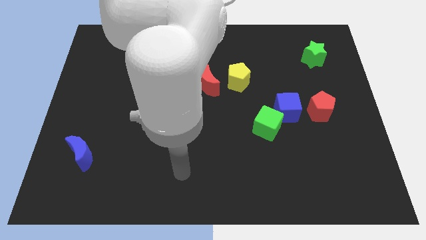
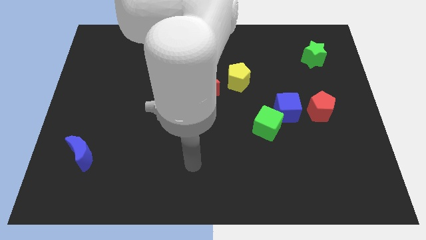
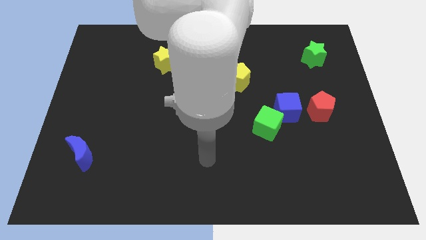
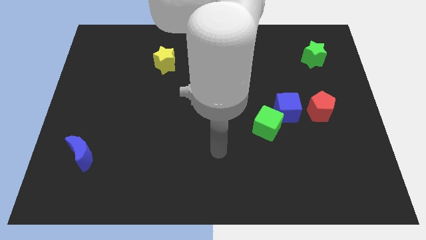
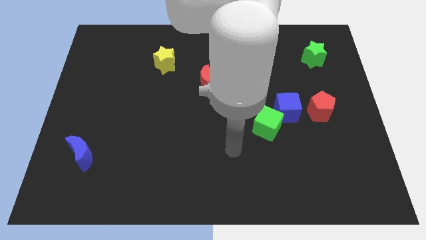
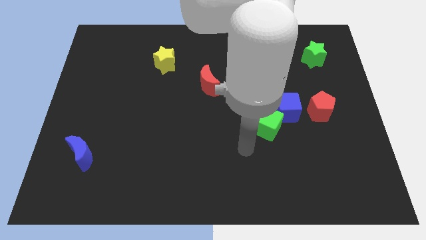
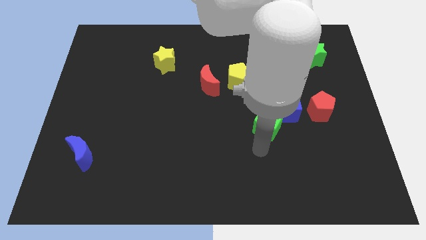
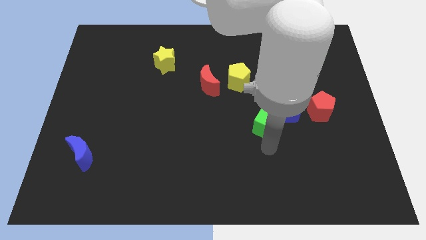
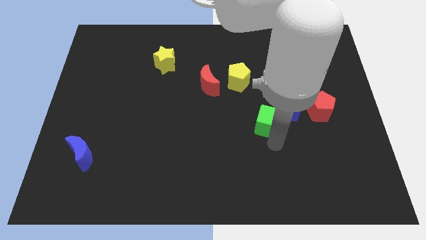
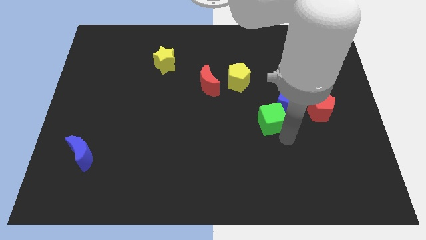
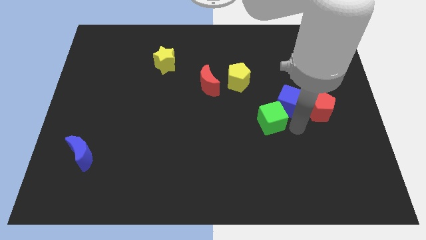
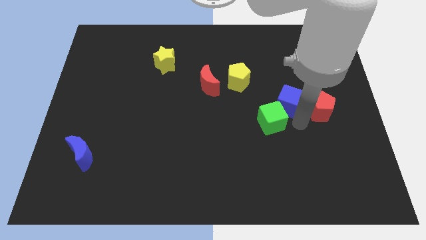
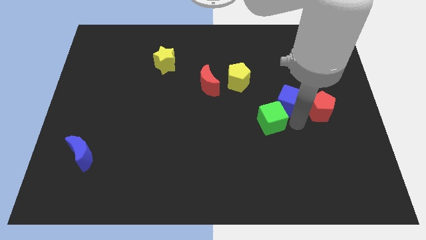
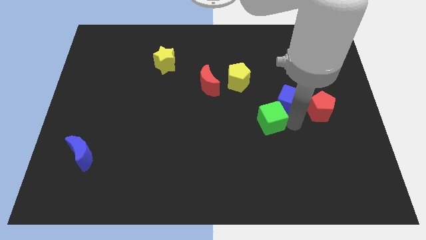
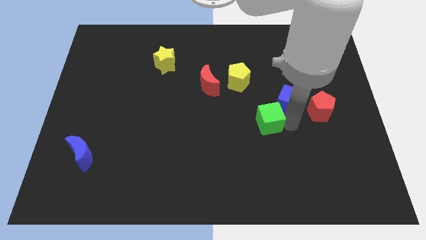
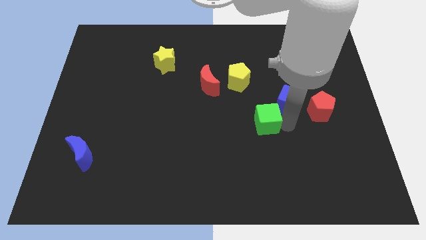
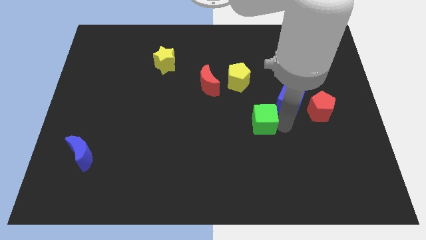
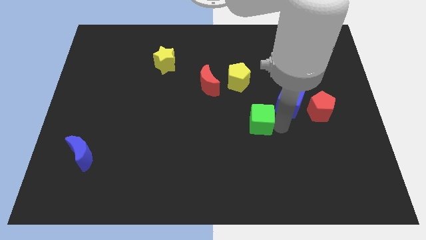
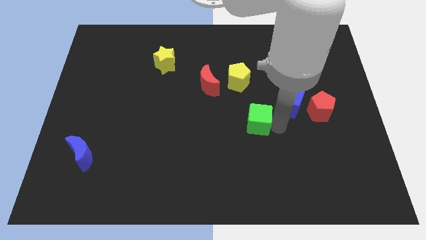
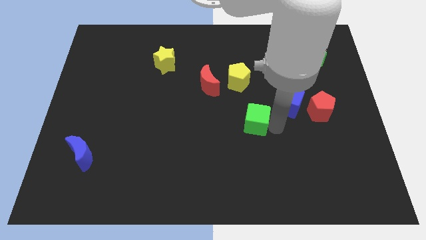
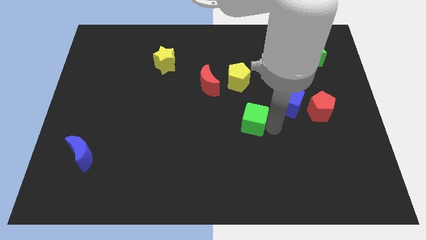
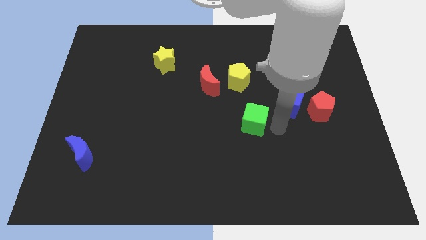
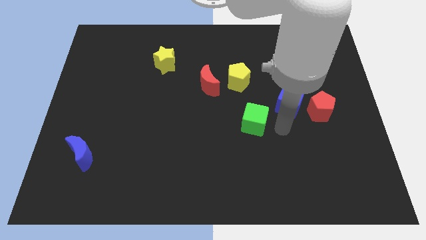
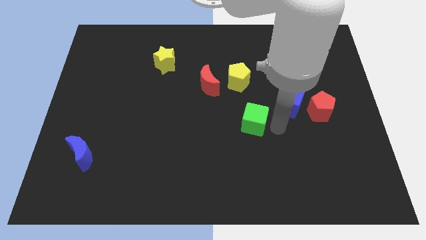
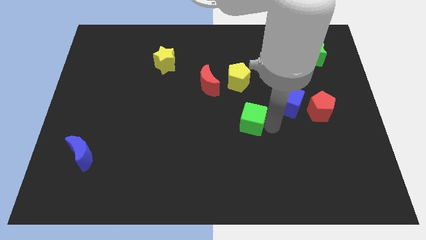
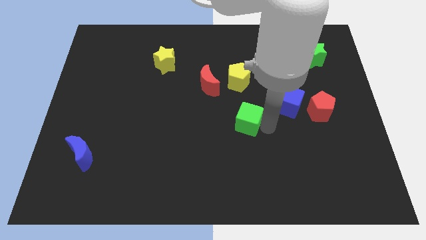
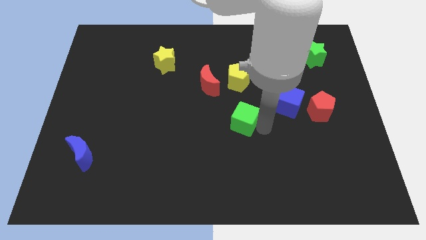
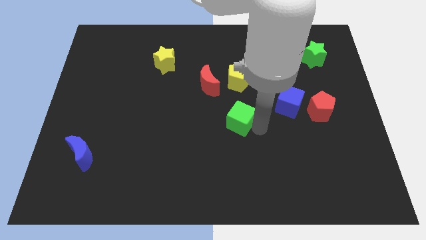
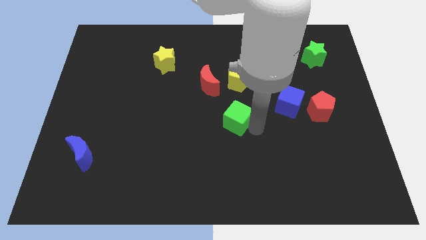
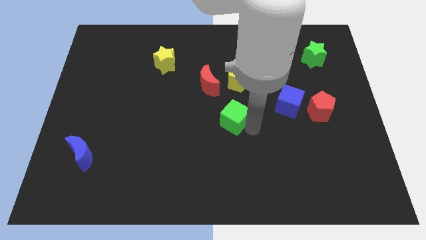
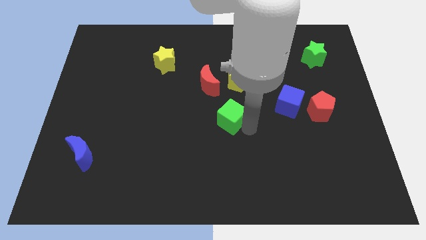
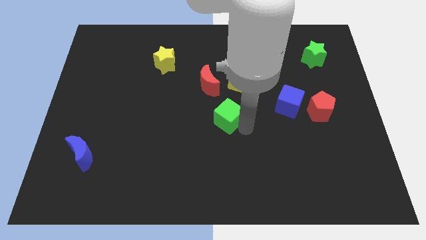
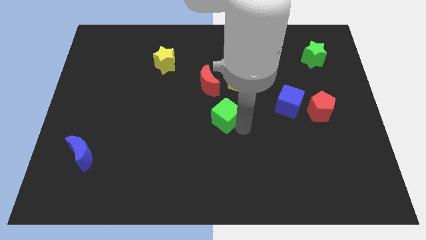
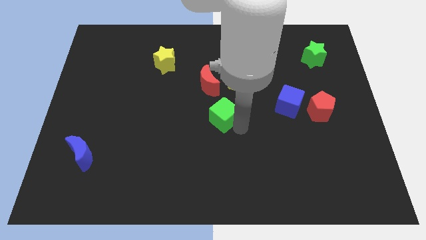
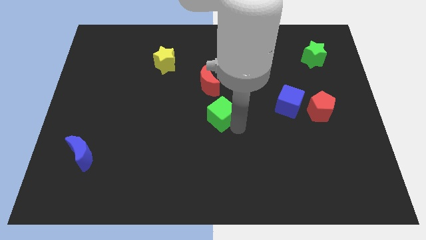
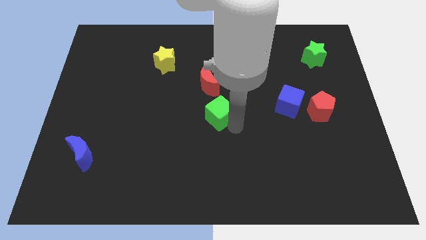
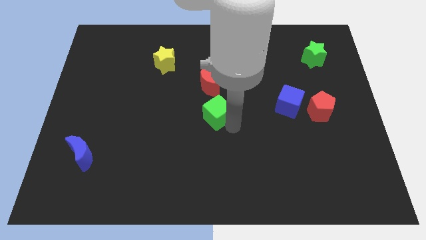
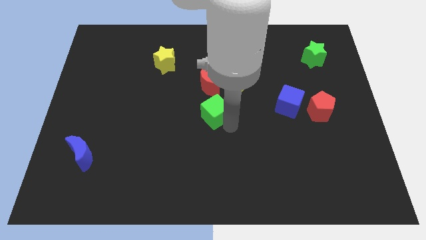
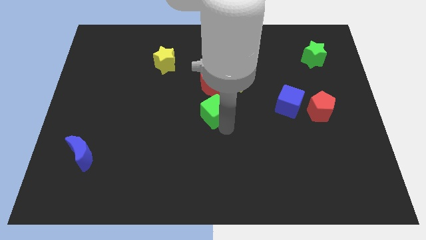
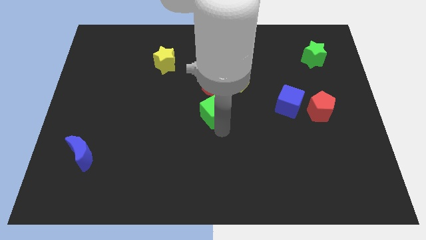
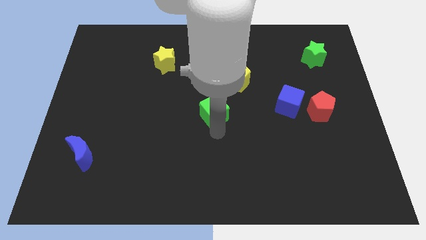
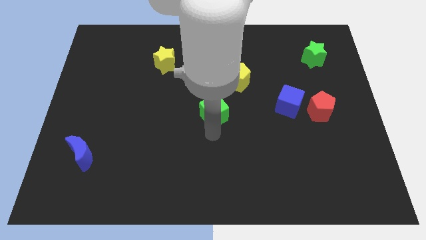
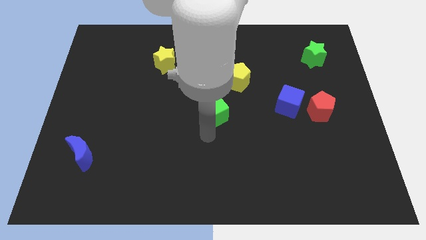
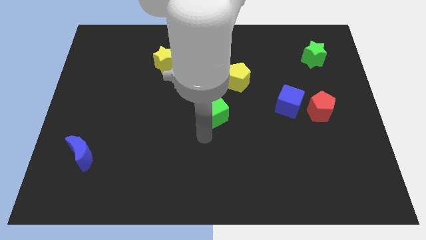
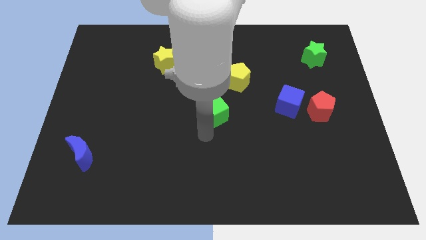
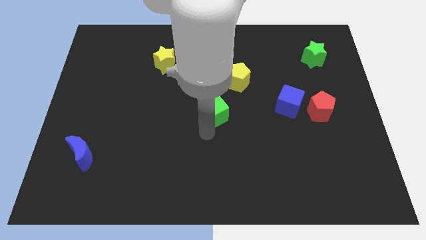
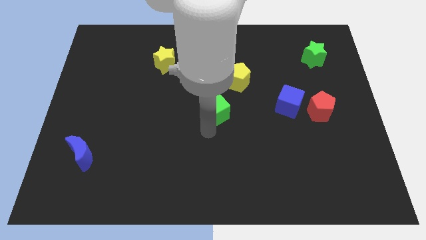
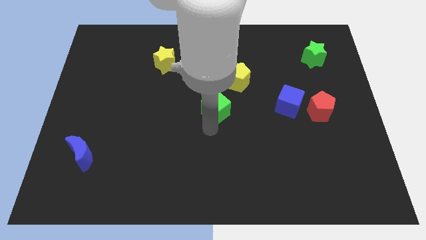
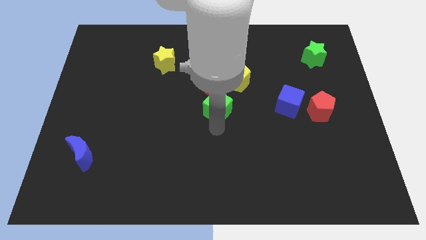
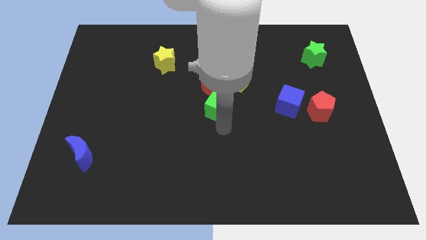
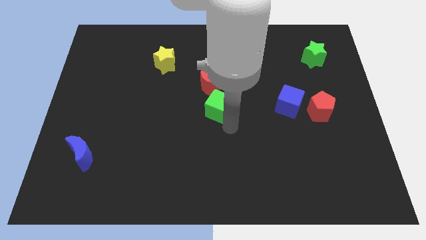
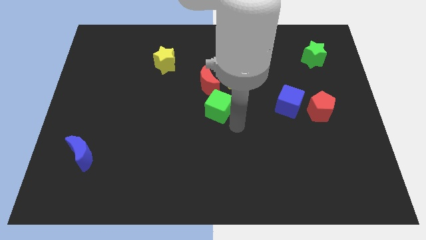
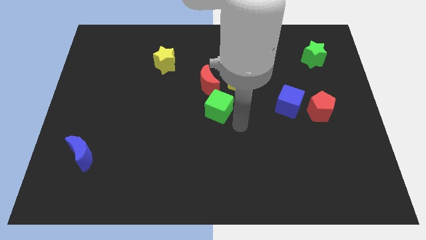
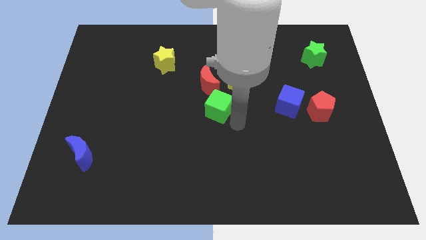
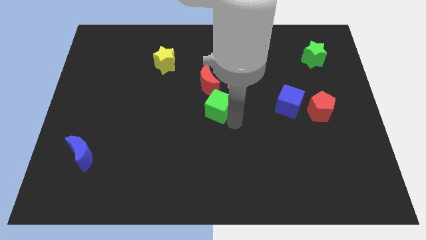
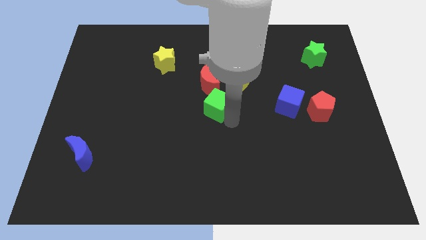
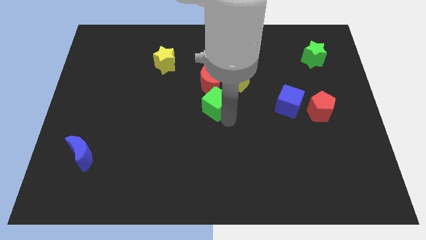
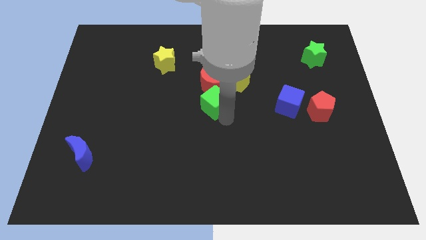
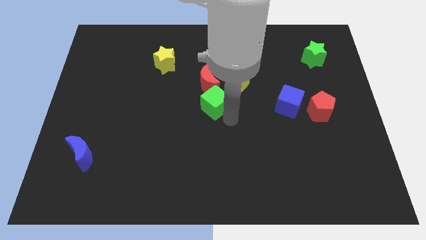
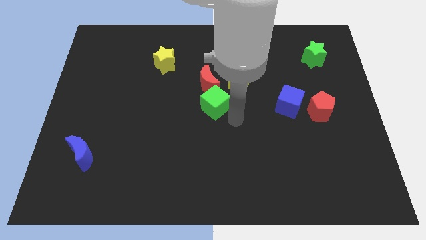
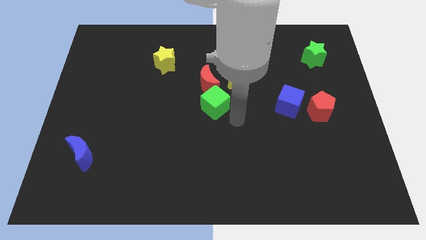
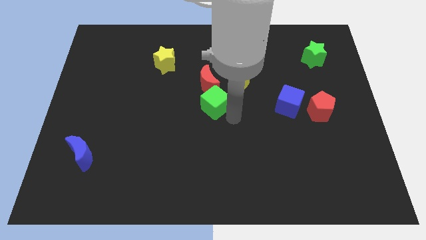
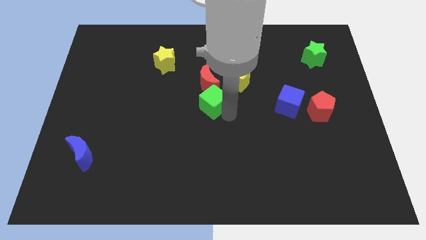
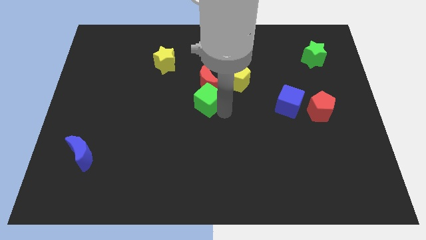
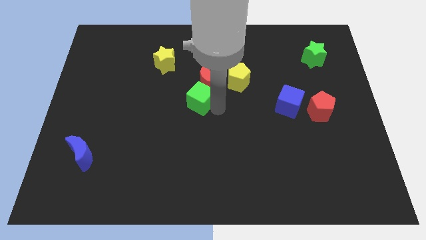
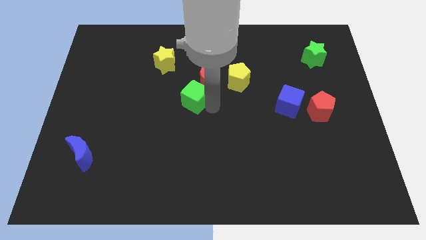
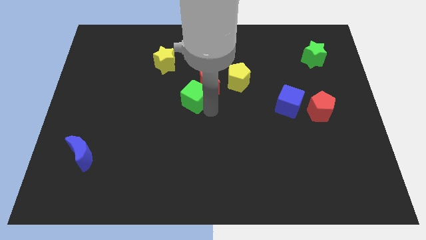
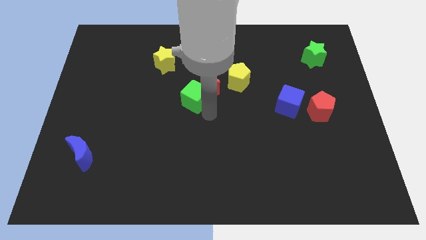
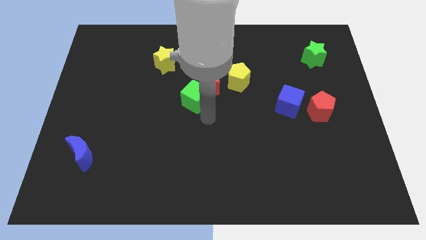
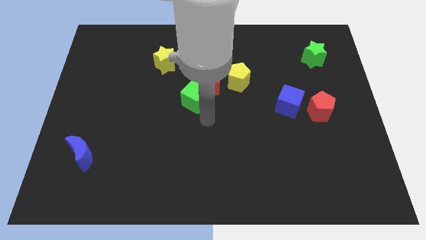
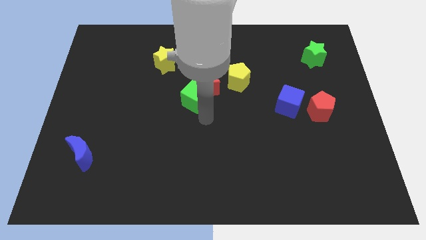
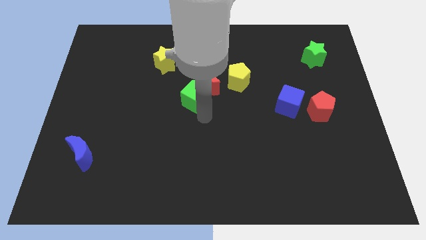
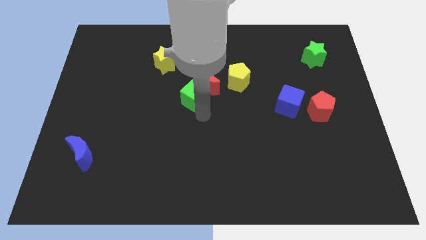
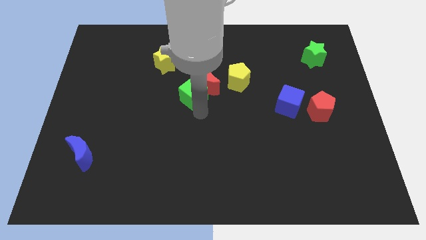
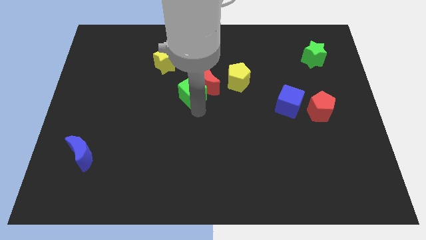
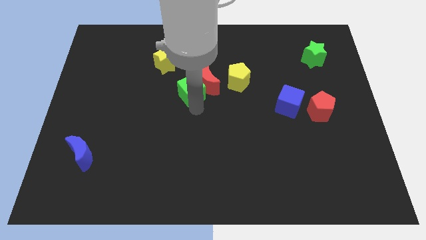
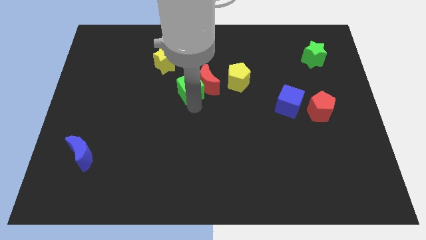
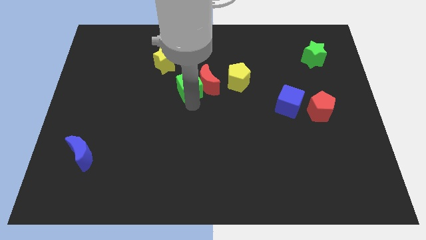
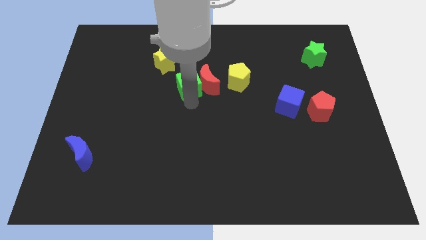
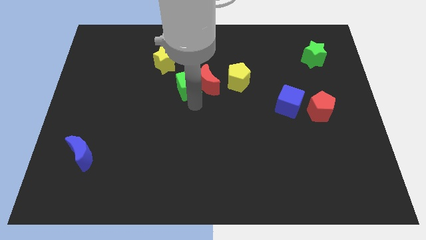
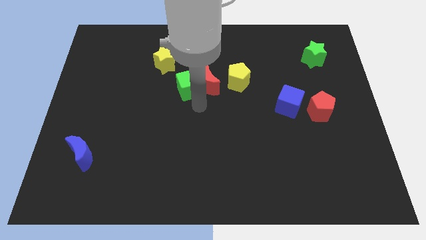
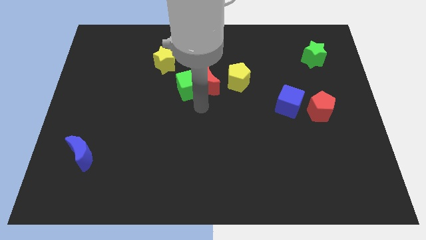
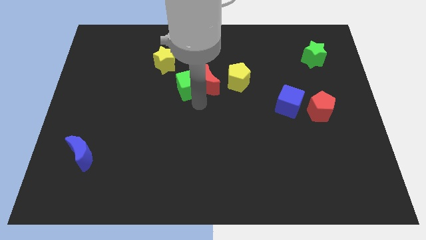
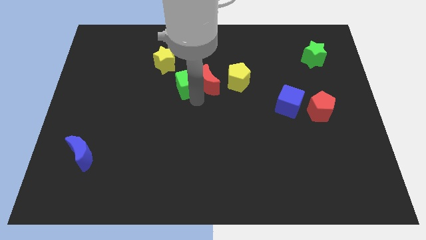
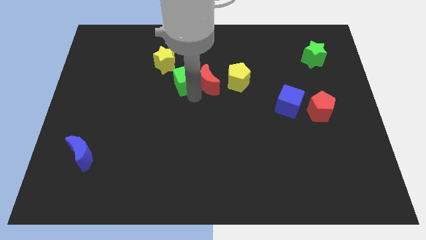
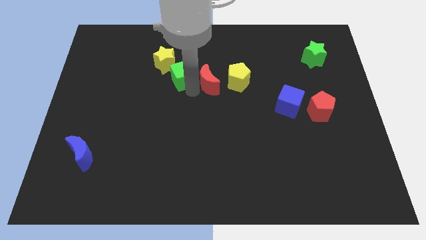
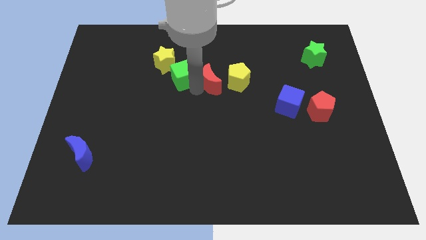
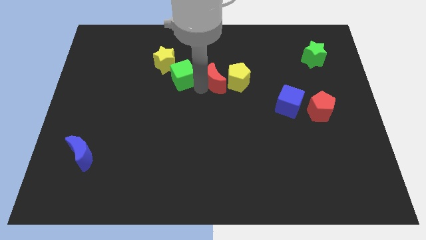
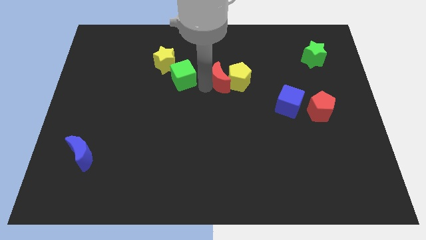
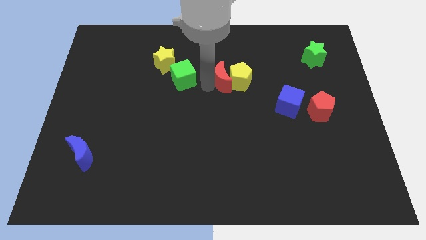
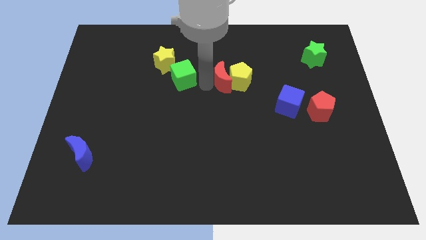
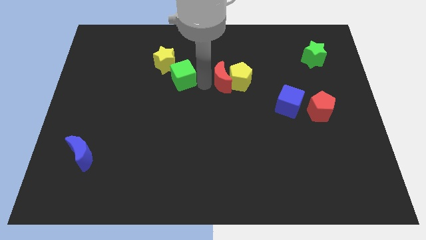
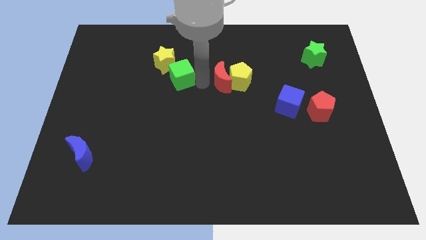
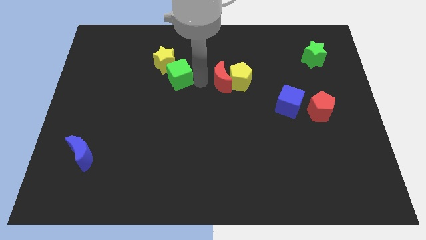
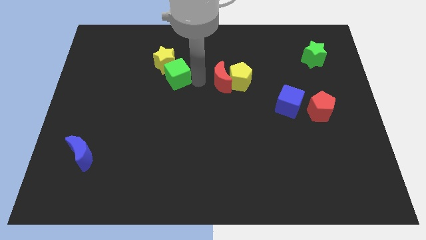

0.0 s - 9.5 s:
put the green cube close to the yellow star
